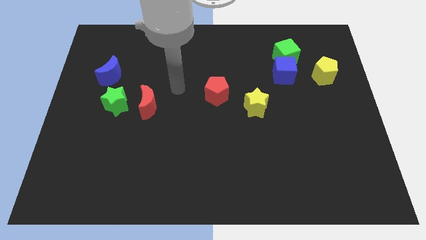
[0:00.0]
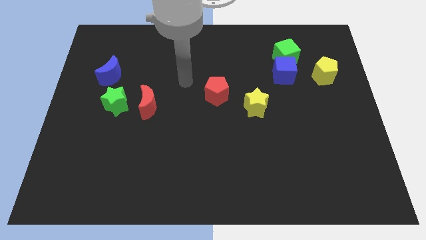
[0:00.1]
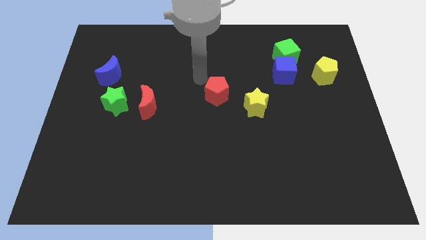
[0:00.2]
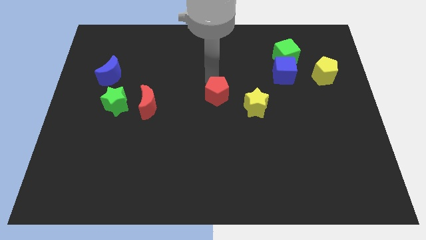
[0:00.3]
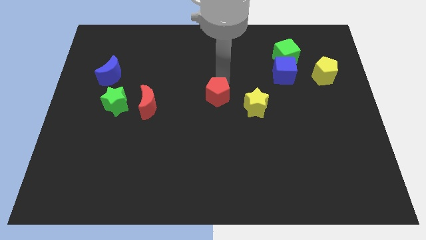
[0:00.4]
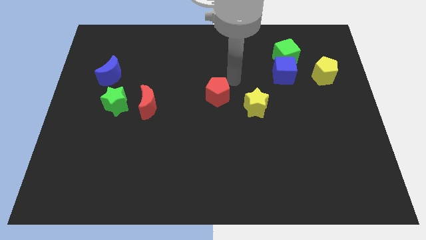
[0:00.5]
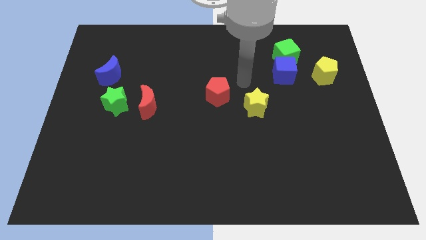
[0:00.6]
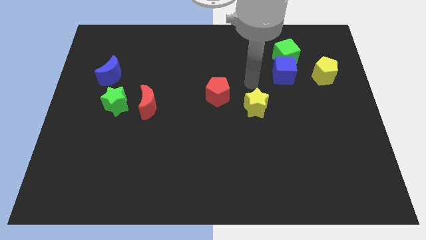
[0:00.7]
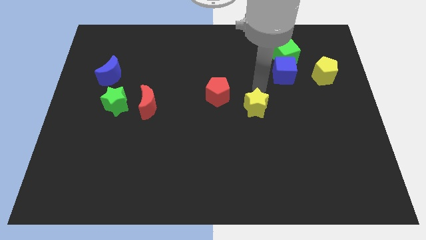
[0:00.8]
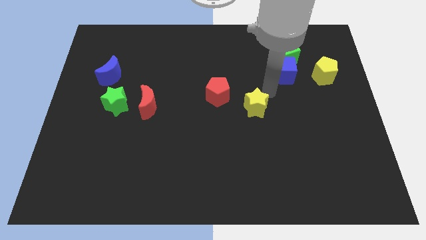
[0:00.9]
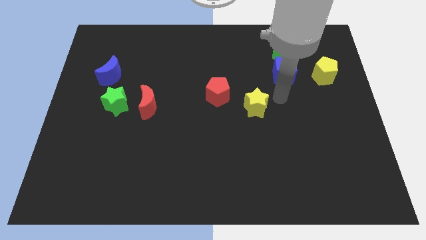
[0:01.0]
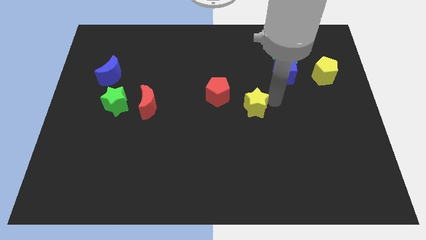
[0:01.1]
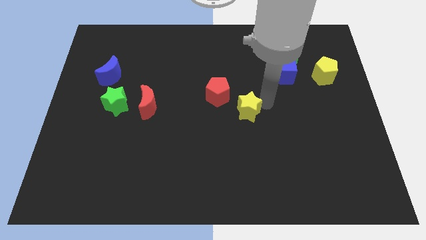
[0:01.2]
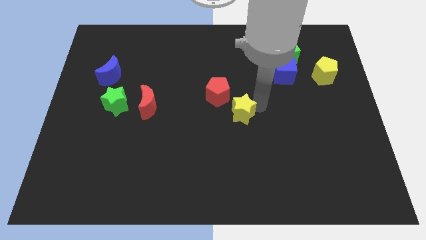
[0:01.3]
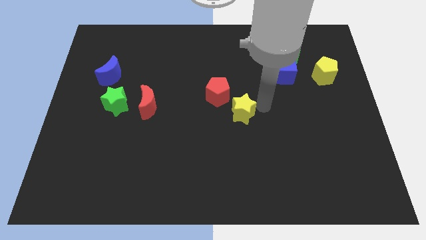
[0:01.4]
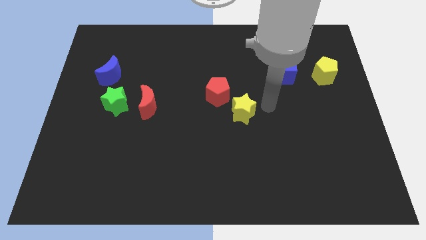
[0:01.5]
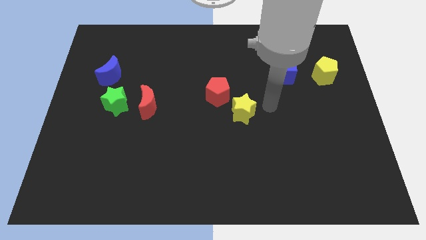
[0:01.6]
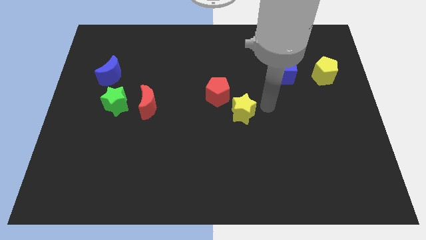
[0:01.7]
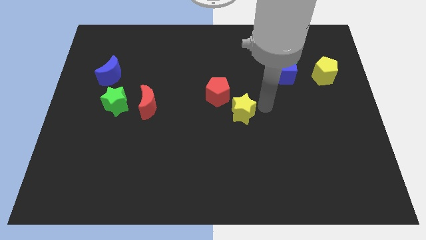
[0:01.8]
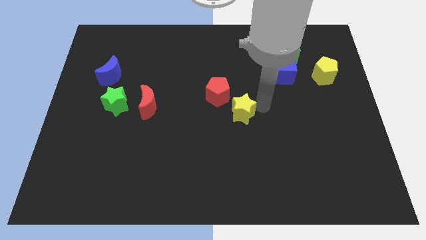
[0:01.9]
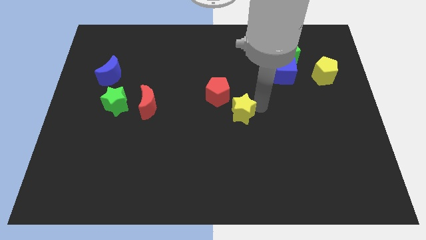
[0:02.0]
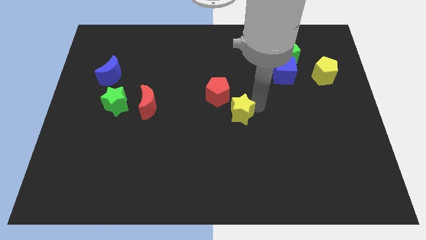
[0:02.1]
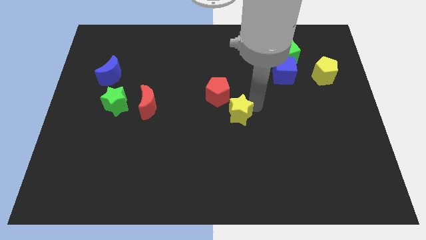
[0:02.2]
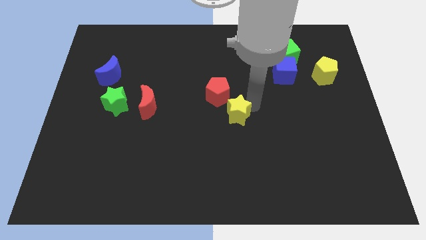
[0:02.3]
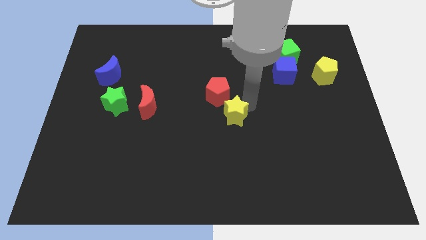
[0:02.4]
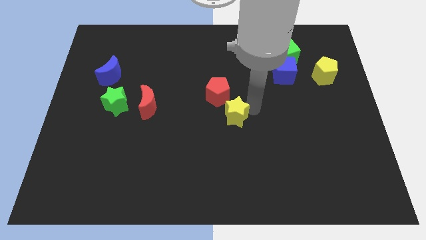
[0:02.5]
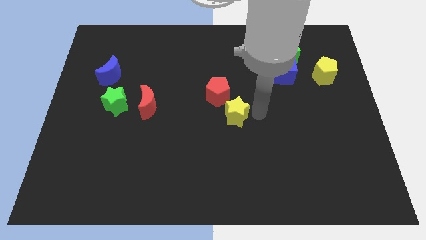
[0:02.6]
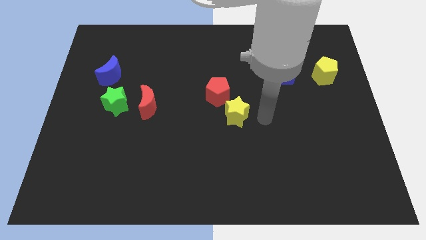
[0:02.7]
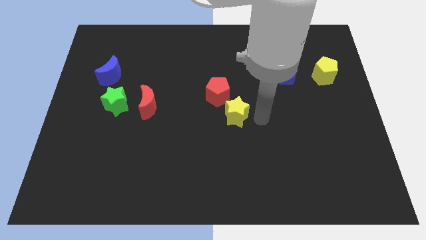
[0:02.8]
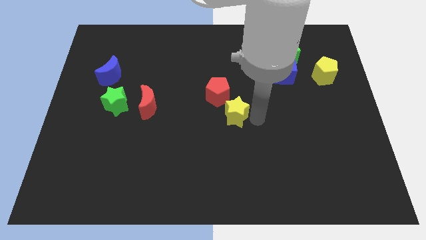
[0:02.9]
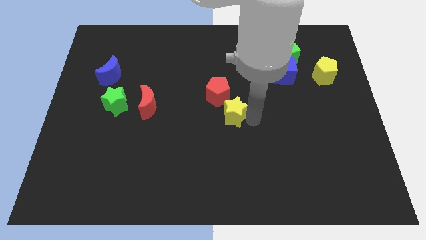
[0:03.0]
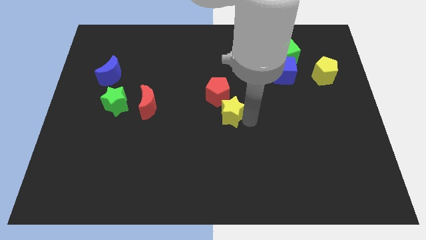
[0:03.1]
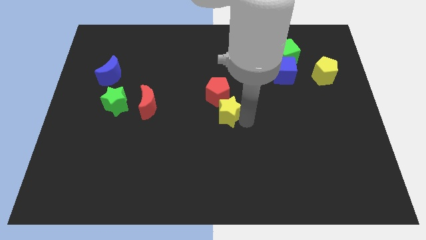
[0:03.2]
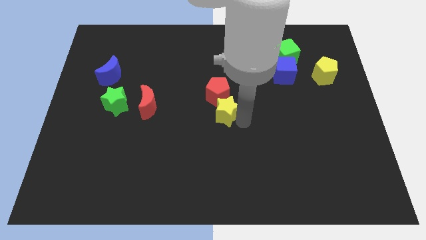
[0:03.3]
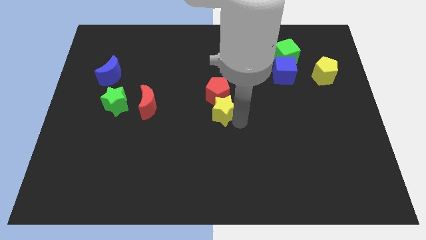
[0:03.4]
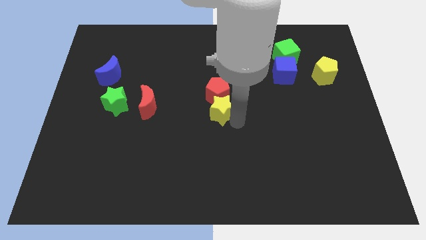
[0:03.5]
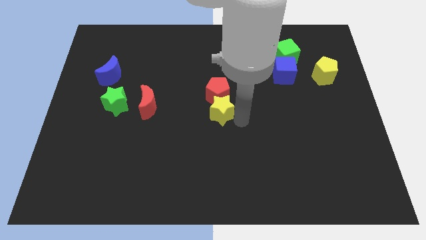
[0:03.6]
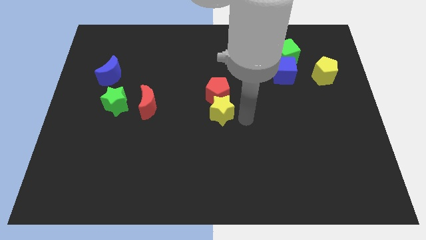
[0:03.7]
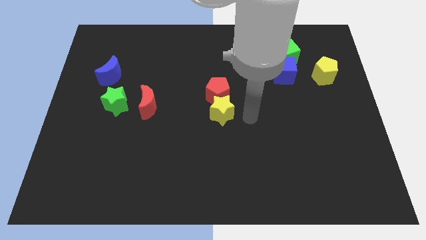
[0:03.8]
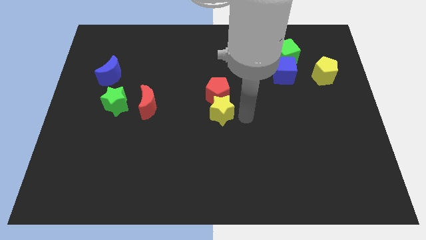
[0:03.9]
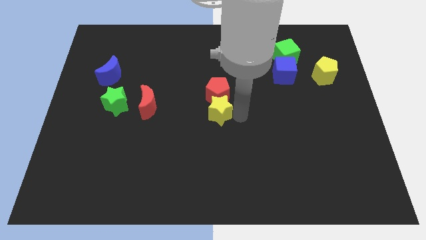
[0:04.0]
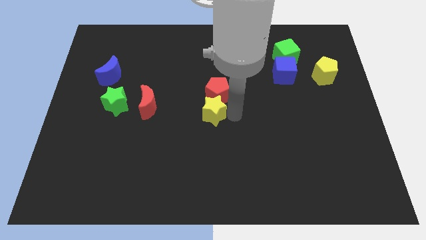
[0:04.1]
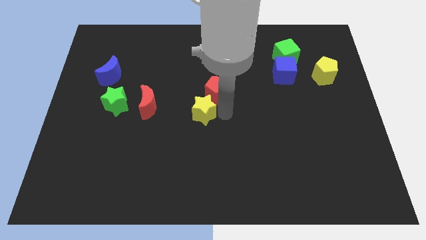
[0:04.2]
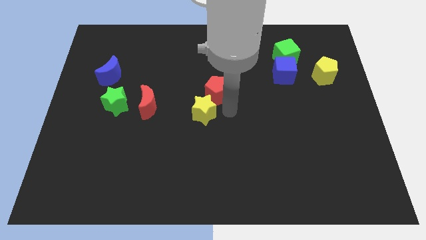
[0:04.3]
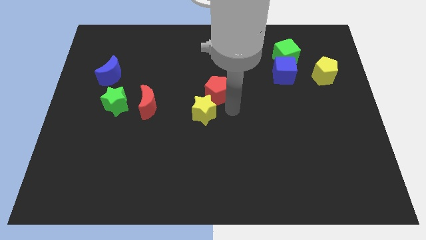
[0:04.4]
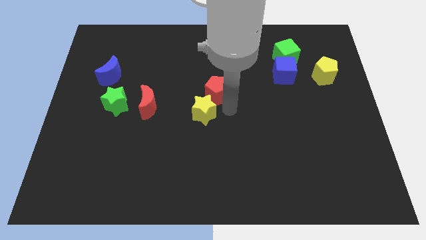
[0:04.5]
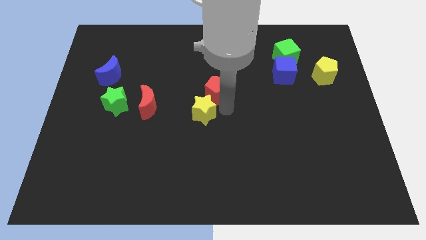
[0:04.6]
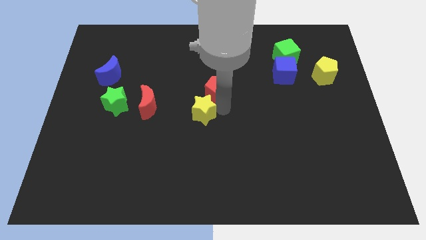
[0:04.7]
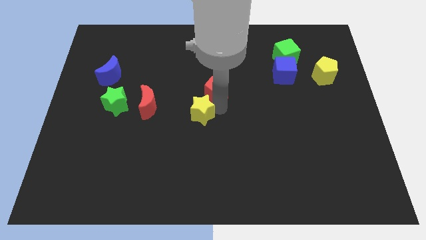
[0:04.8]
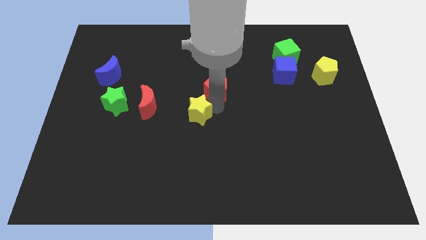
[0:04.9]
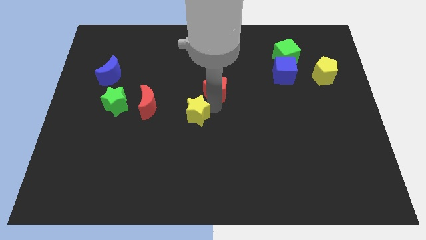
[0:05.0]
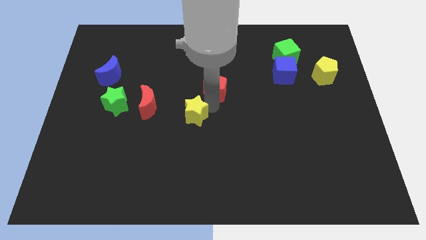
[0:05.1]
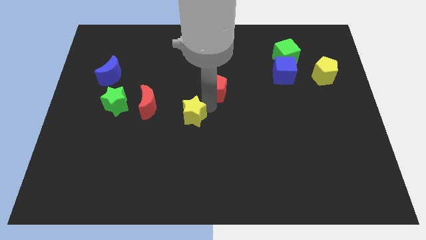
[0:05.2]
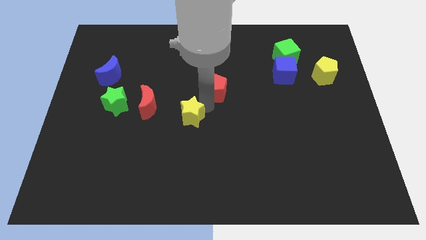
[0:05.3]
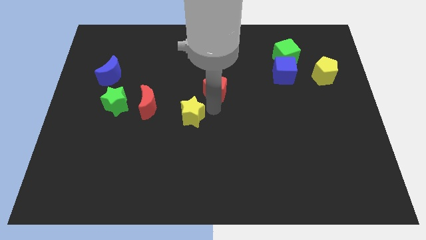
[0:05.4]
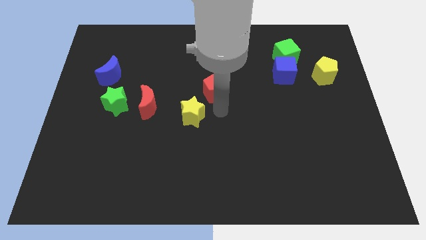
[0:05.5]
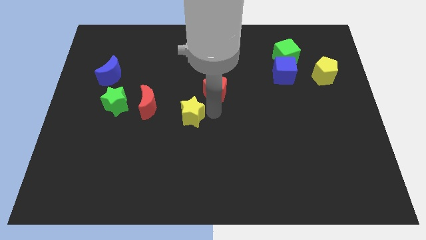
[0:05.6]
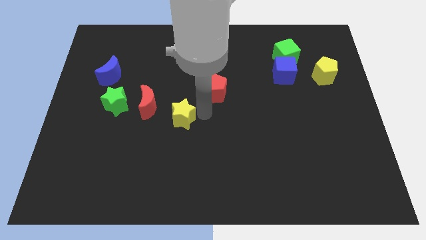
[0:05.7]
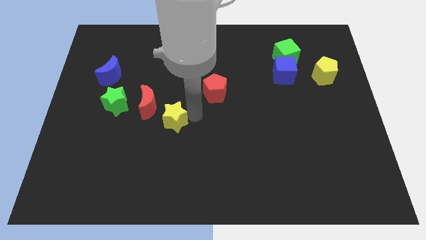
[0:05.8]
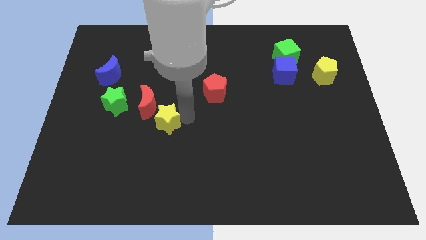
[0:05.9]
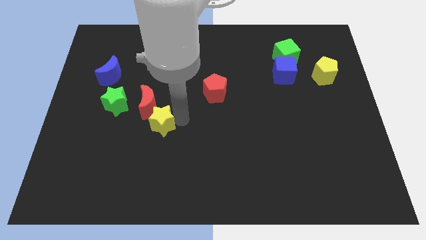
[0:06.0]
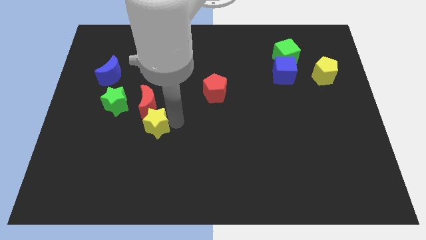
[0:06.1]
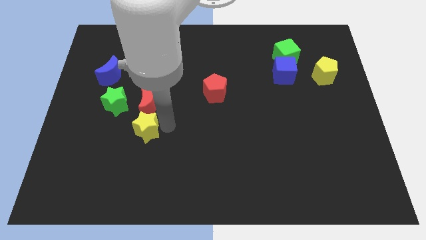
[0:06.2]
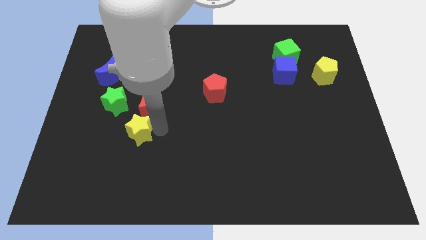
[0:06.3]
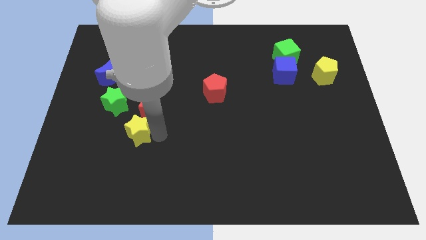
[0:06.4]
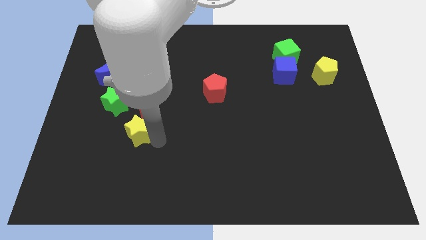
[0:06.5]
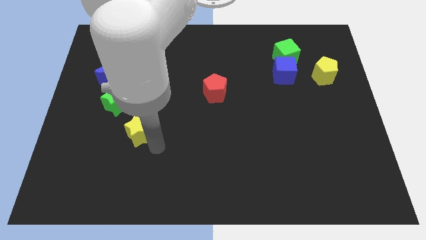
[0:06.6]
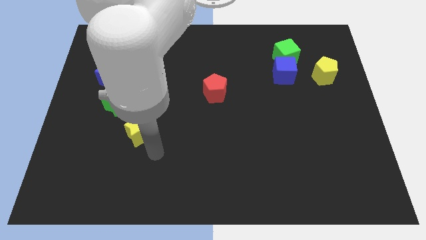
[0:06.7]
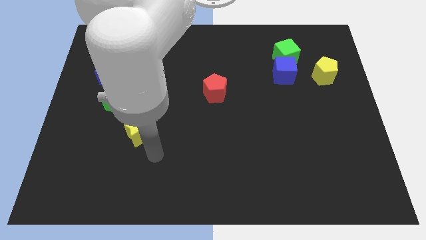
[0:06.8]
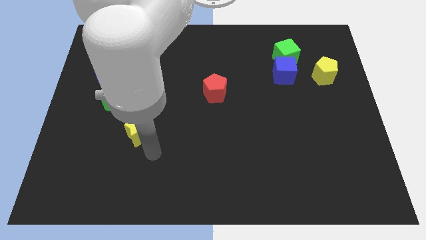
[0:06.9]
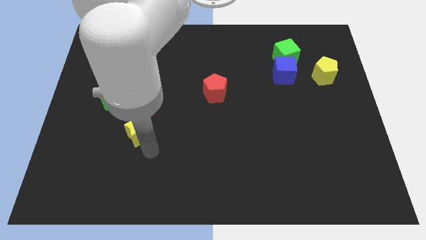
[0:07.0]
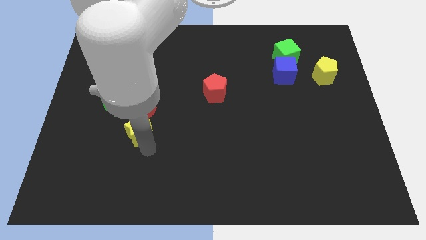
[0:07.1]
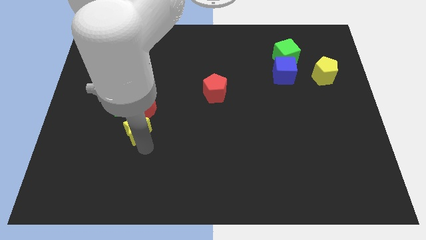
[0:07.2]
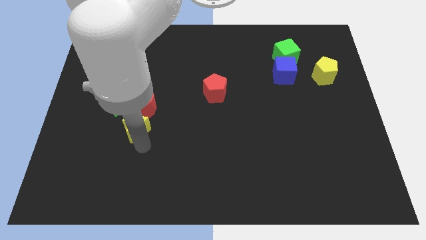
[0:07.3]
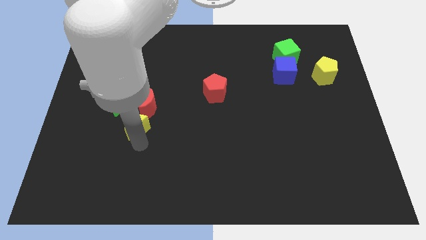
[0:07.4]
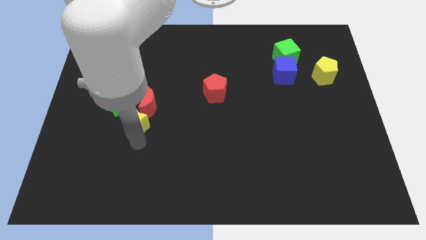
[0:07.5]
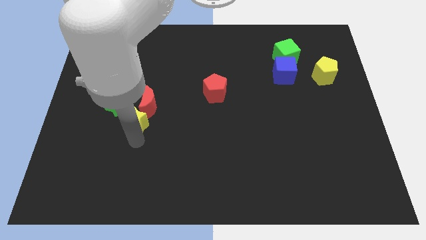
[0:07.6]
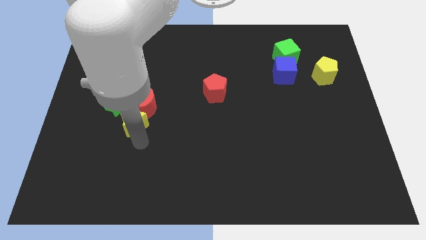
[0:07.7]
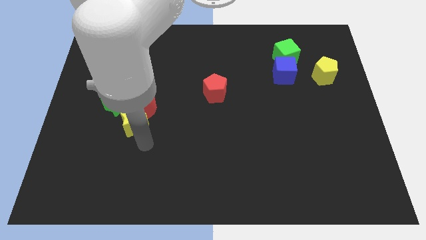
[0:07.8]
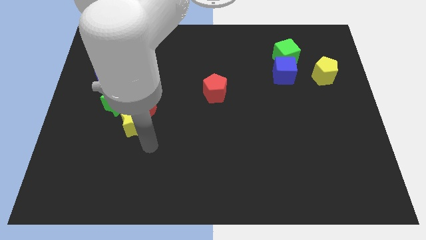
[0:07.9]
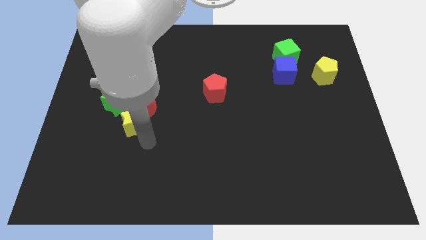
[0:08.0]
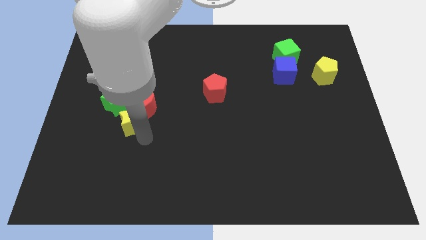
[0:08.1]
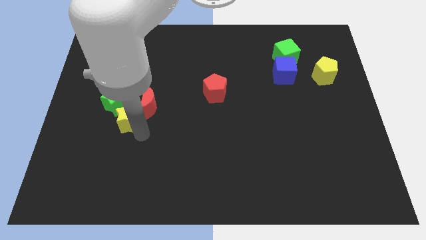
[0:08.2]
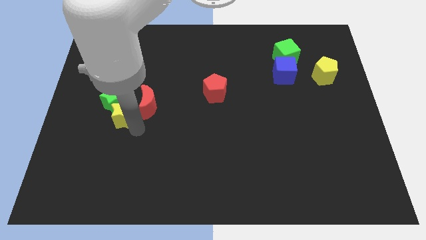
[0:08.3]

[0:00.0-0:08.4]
slide the yellow star next to the green star
